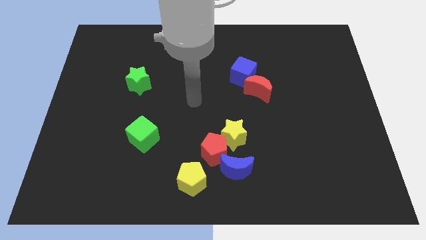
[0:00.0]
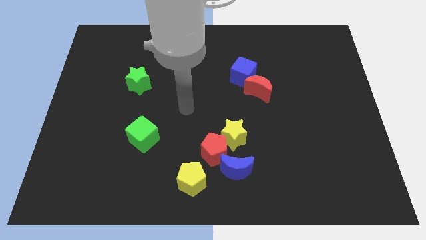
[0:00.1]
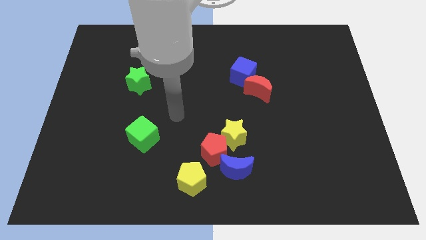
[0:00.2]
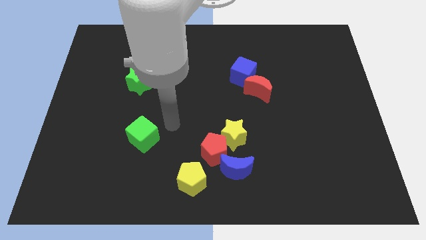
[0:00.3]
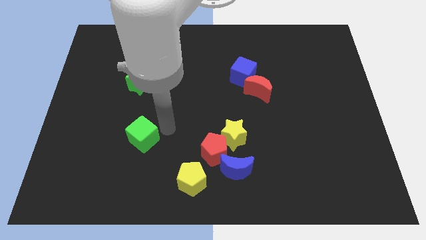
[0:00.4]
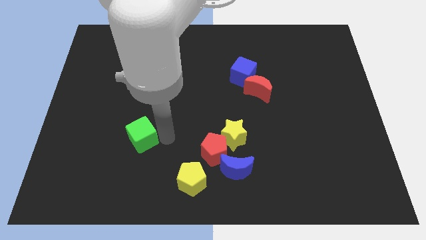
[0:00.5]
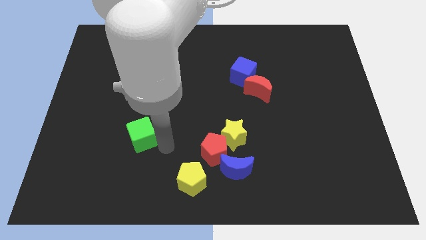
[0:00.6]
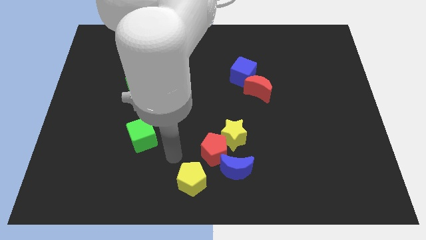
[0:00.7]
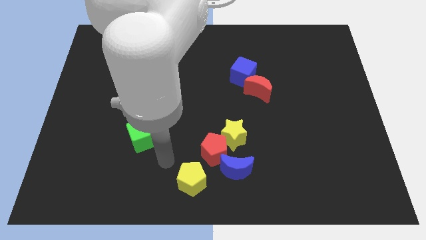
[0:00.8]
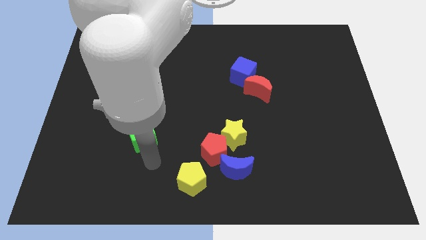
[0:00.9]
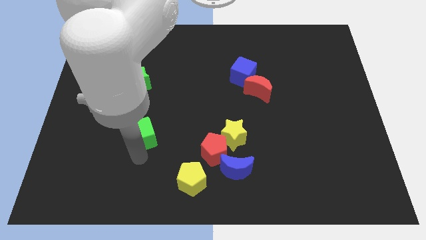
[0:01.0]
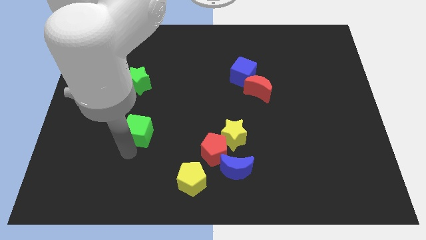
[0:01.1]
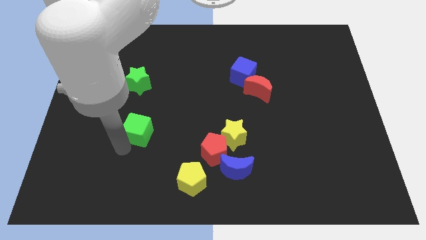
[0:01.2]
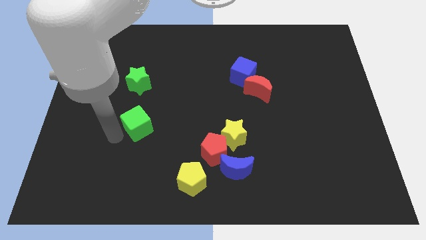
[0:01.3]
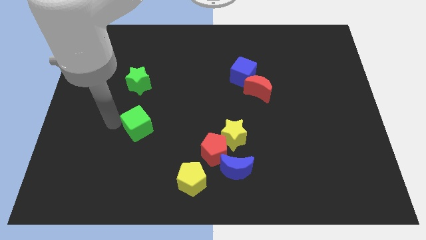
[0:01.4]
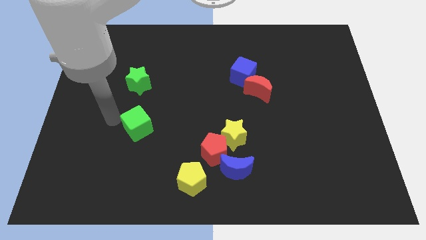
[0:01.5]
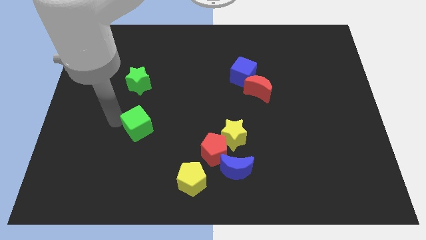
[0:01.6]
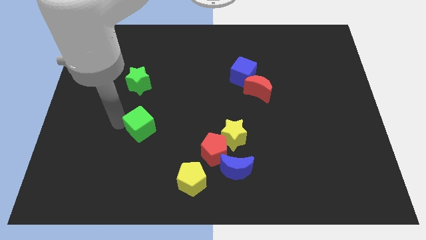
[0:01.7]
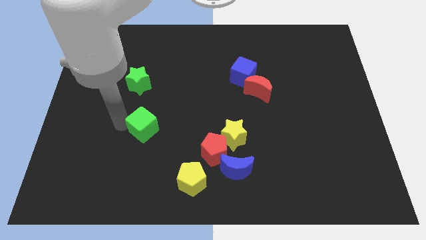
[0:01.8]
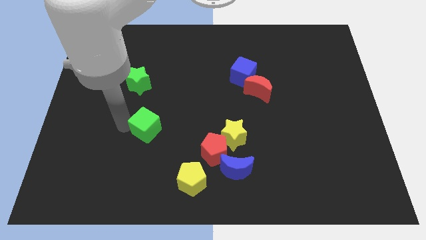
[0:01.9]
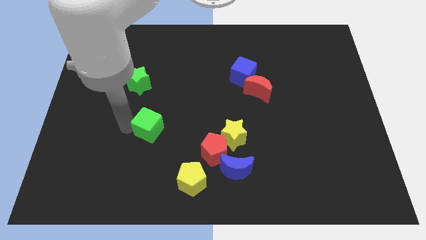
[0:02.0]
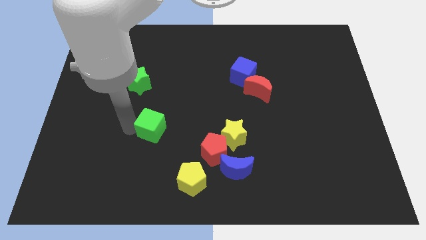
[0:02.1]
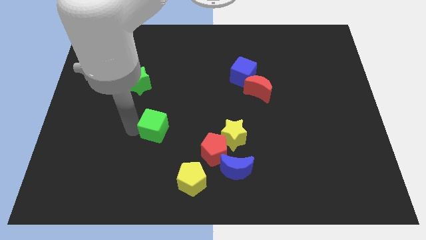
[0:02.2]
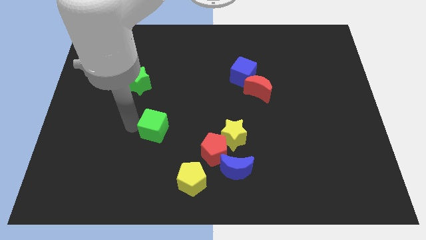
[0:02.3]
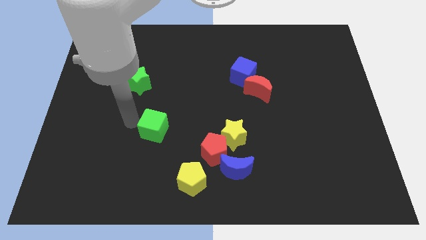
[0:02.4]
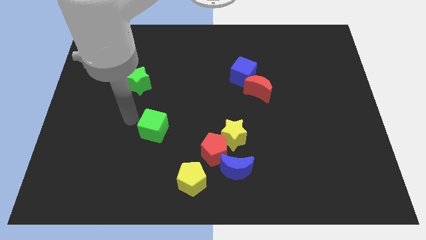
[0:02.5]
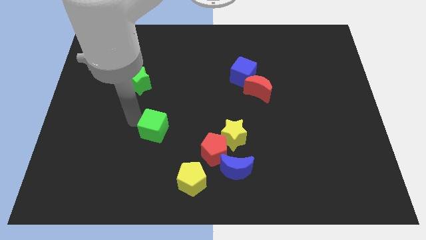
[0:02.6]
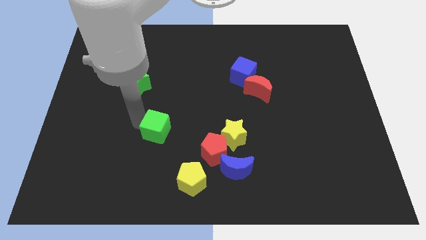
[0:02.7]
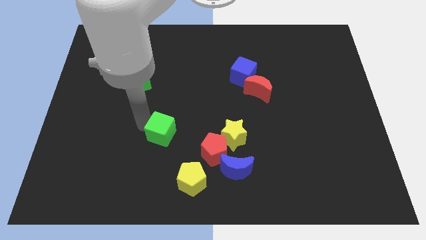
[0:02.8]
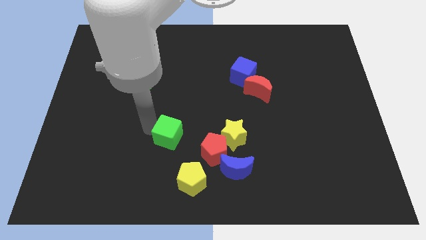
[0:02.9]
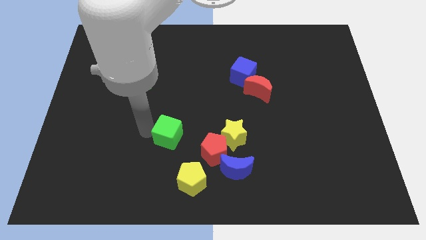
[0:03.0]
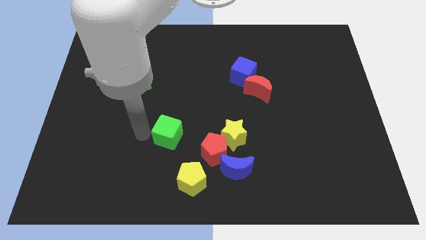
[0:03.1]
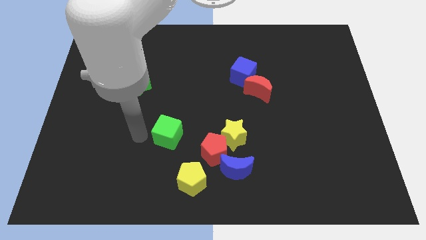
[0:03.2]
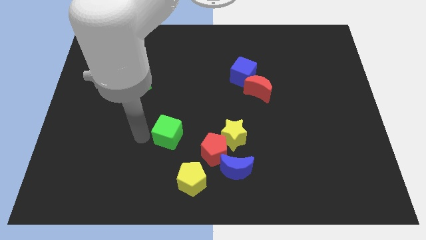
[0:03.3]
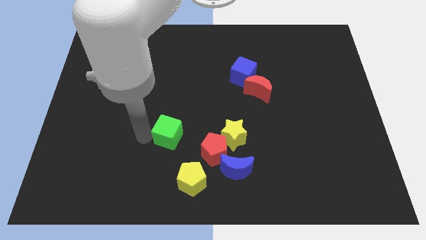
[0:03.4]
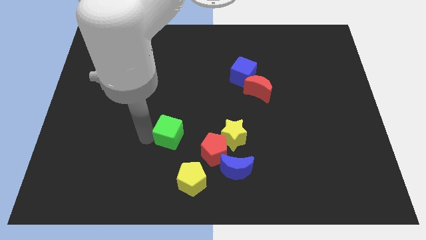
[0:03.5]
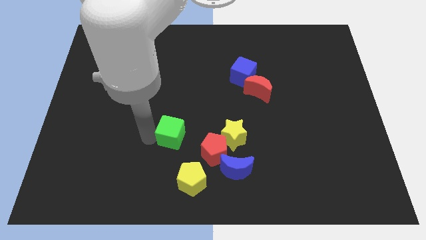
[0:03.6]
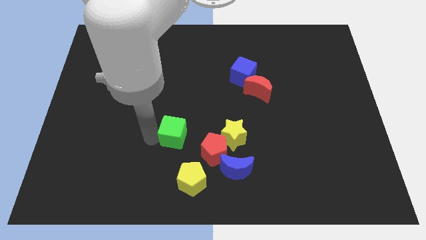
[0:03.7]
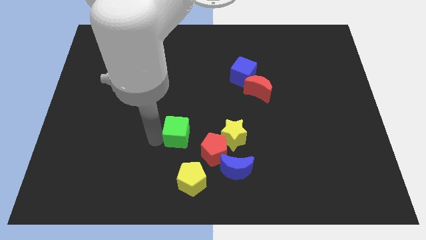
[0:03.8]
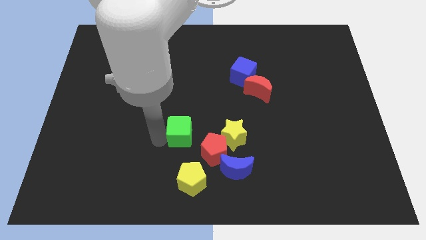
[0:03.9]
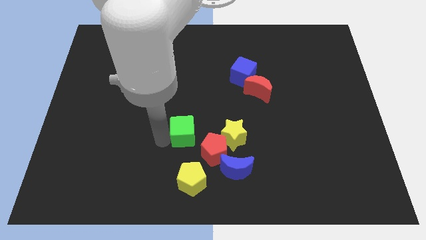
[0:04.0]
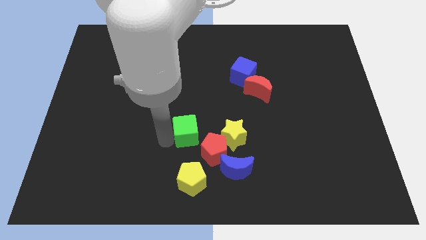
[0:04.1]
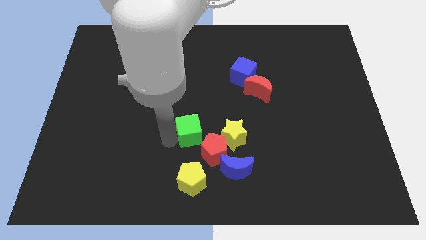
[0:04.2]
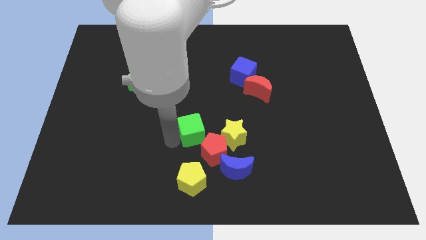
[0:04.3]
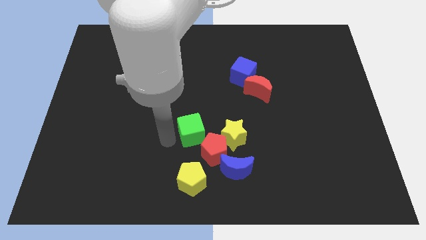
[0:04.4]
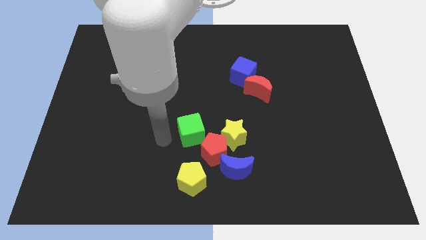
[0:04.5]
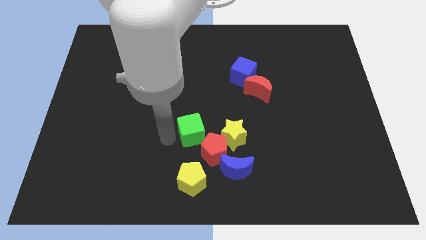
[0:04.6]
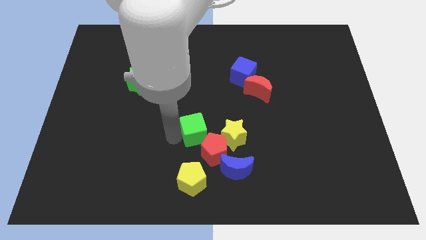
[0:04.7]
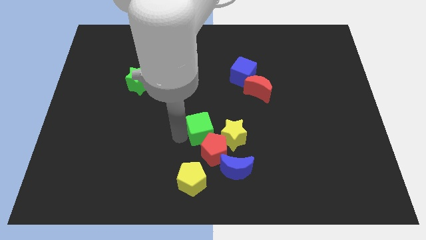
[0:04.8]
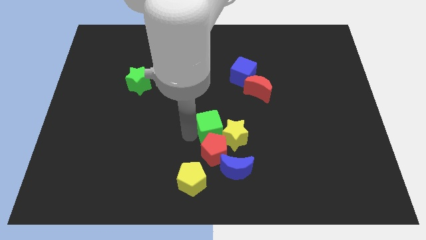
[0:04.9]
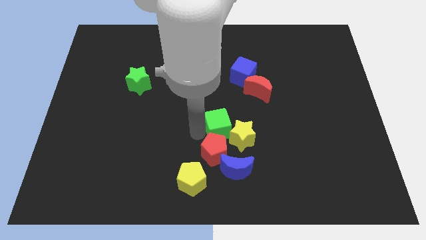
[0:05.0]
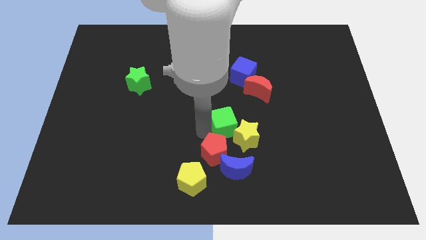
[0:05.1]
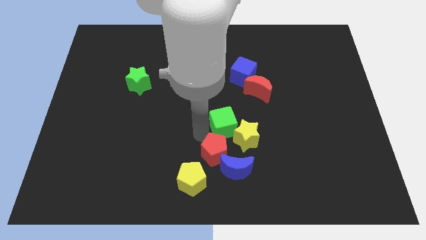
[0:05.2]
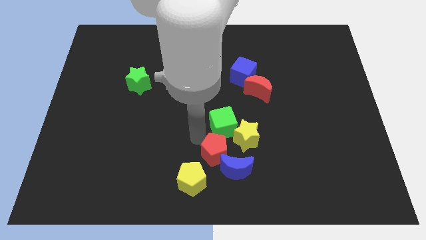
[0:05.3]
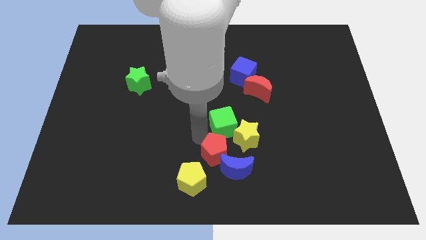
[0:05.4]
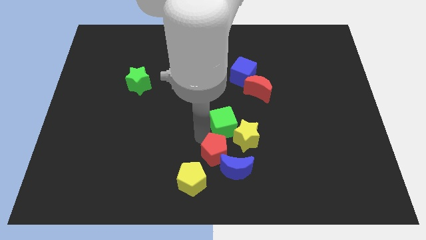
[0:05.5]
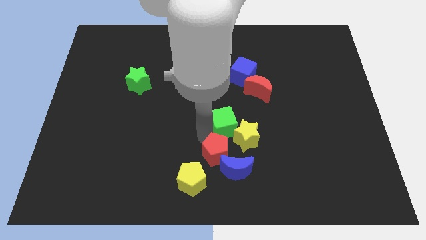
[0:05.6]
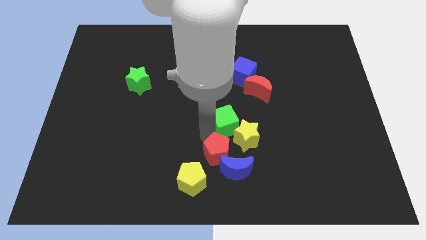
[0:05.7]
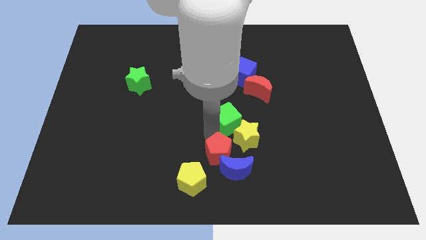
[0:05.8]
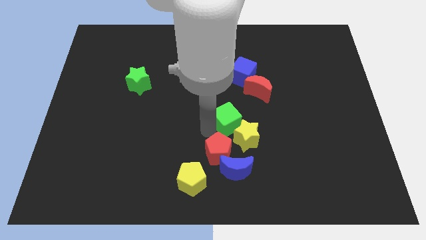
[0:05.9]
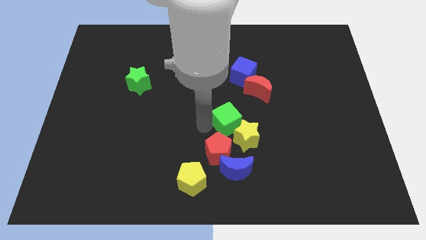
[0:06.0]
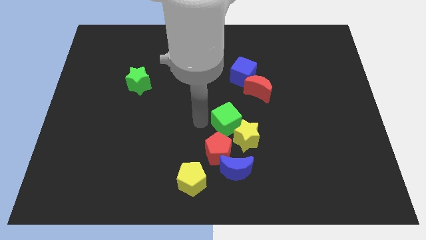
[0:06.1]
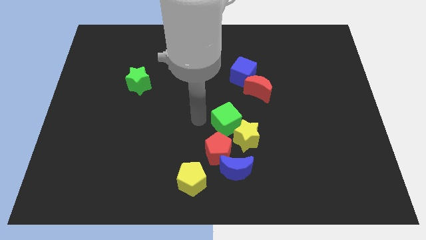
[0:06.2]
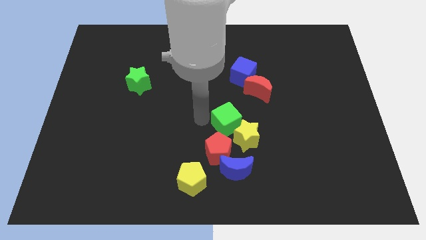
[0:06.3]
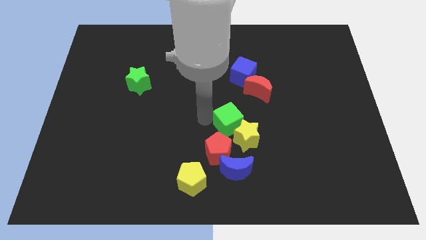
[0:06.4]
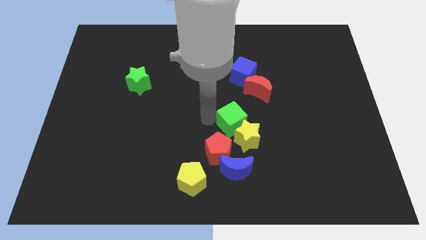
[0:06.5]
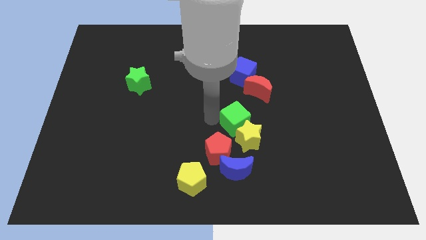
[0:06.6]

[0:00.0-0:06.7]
move the green cube to the right

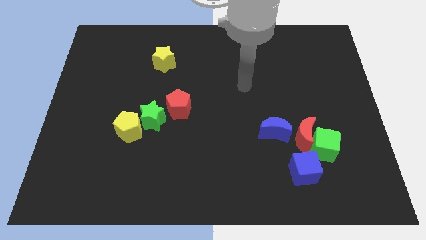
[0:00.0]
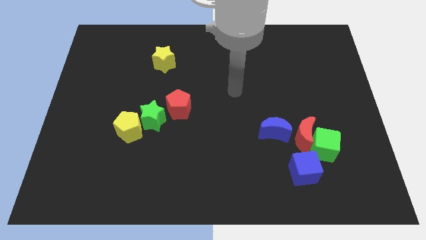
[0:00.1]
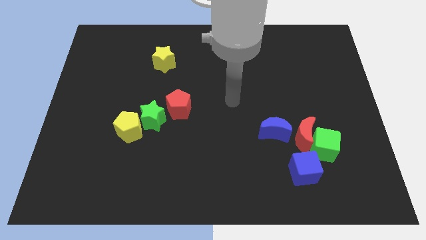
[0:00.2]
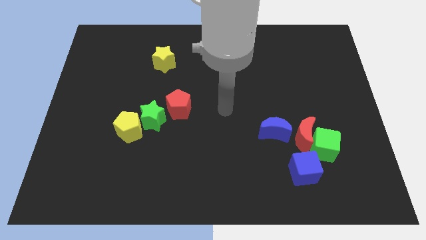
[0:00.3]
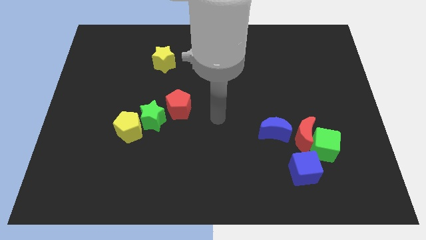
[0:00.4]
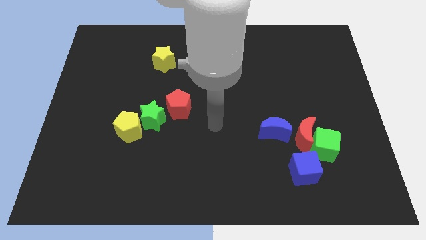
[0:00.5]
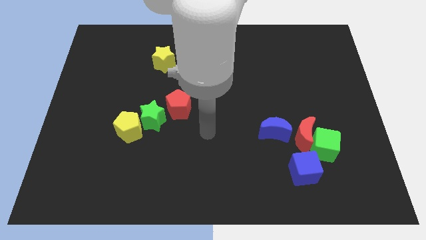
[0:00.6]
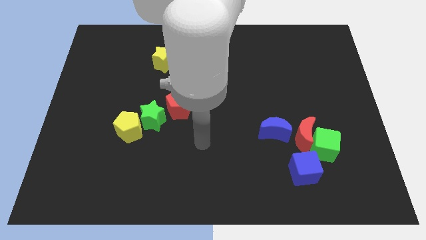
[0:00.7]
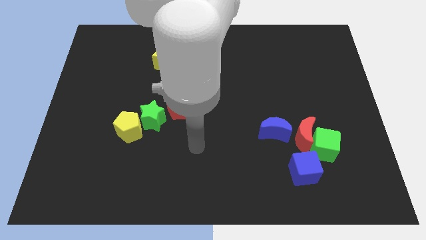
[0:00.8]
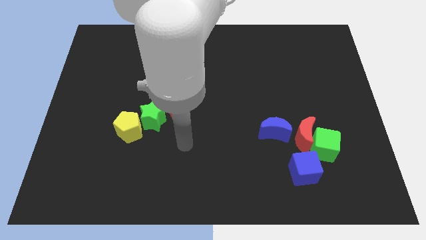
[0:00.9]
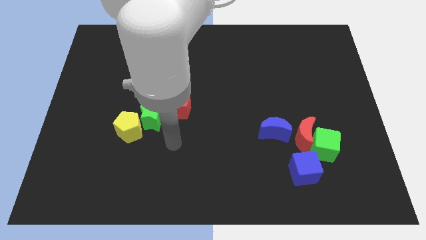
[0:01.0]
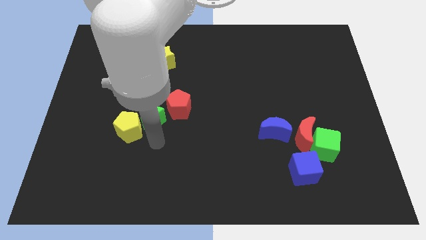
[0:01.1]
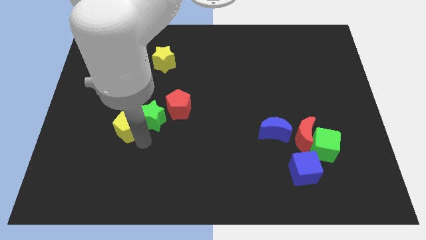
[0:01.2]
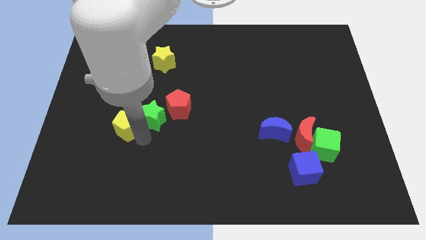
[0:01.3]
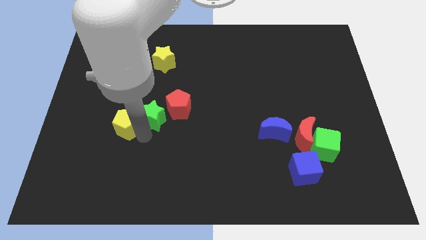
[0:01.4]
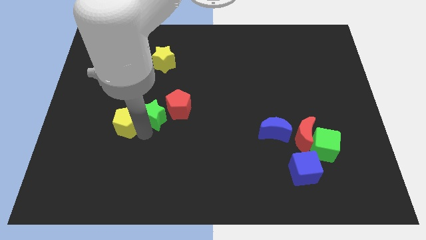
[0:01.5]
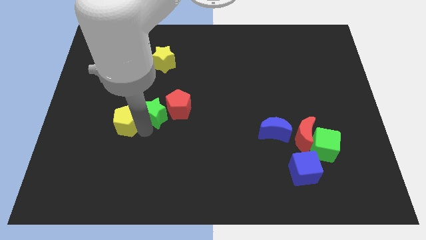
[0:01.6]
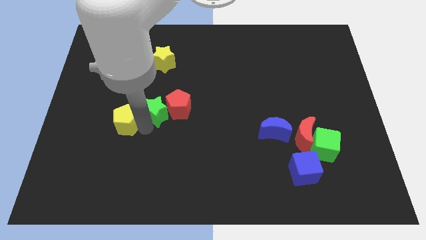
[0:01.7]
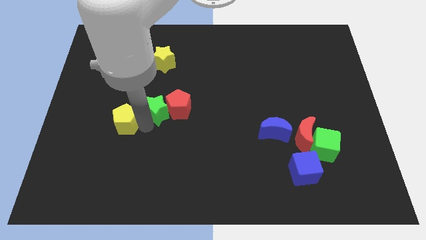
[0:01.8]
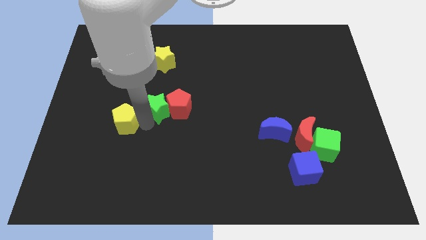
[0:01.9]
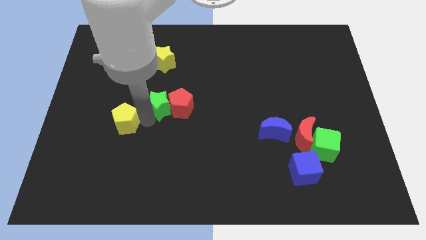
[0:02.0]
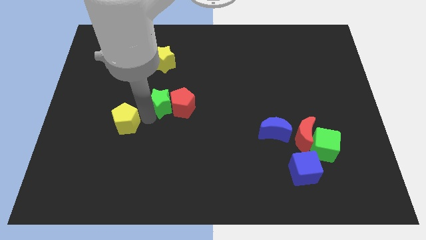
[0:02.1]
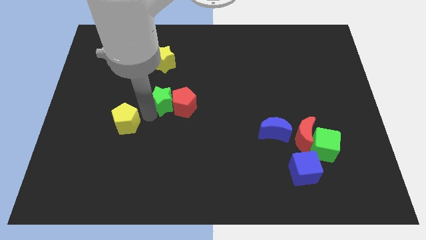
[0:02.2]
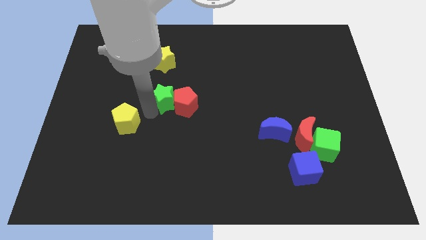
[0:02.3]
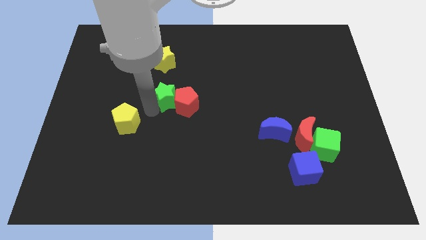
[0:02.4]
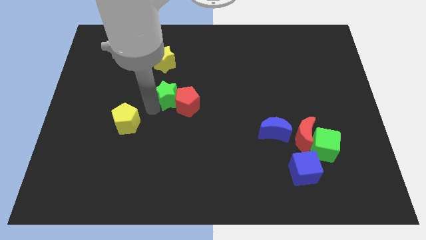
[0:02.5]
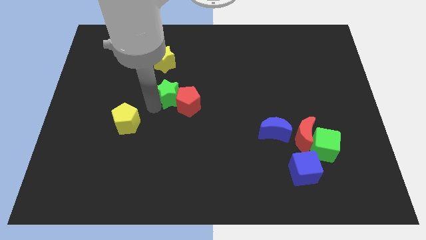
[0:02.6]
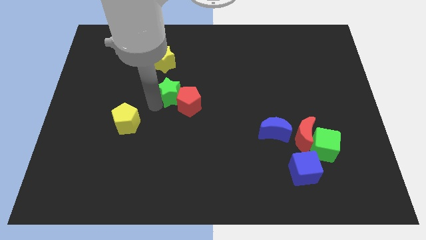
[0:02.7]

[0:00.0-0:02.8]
slide the green star a bit up and to the right diagonally
